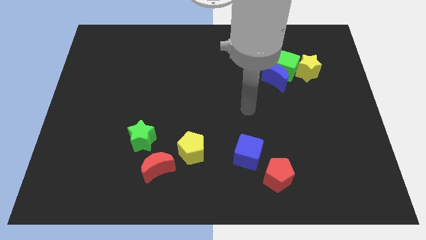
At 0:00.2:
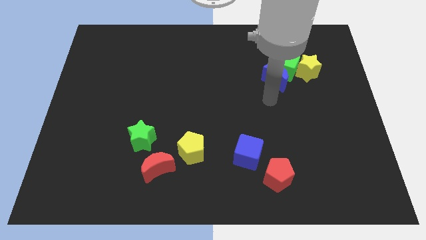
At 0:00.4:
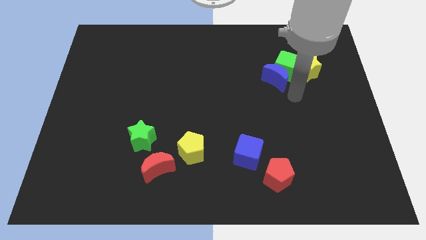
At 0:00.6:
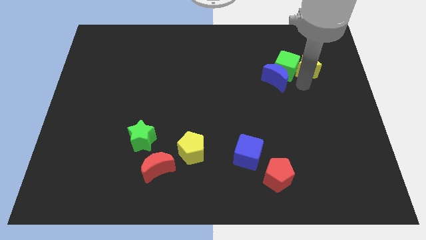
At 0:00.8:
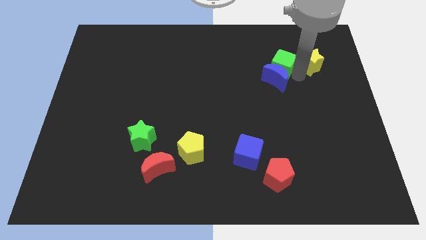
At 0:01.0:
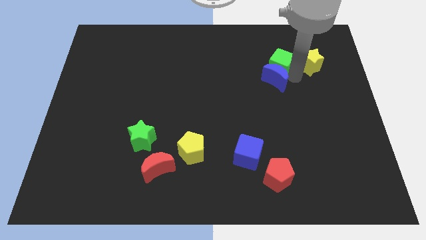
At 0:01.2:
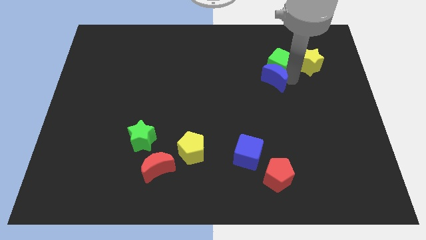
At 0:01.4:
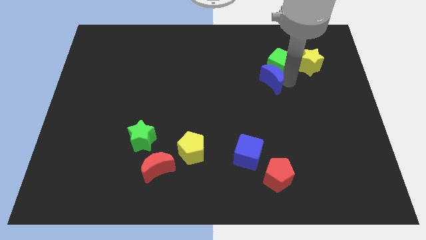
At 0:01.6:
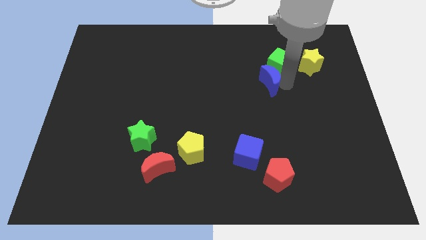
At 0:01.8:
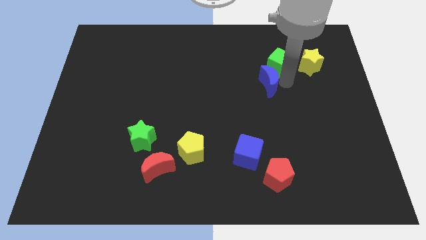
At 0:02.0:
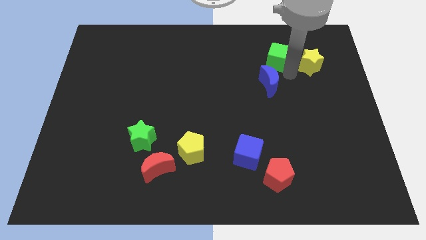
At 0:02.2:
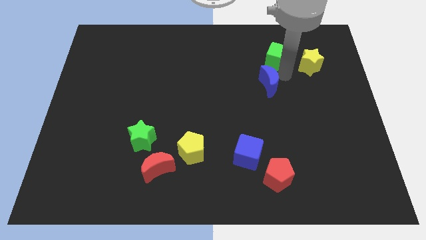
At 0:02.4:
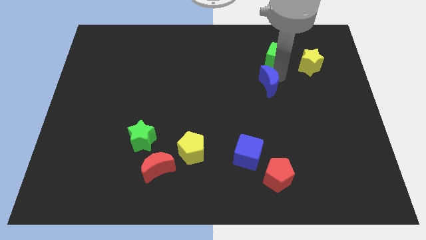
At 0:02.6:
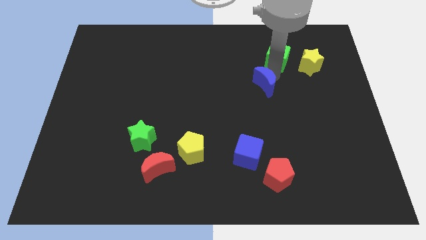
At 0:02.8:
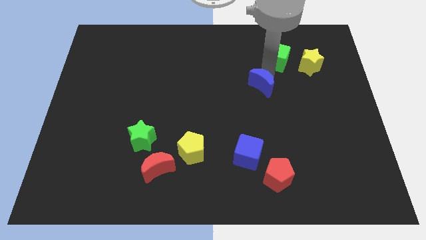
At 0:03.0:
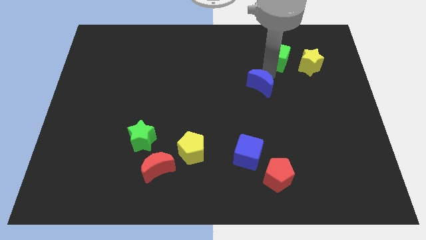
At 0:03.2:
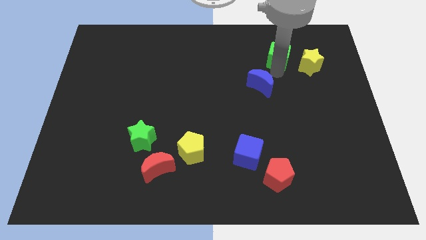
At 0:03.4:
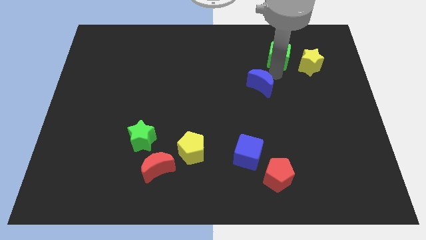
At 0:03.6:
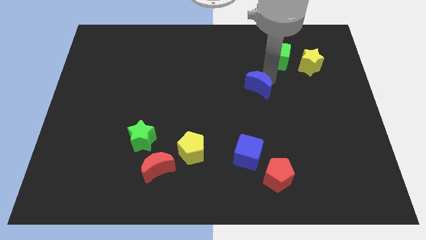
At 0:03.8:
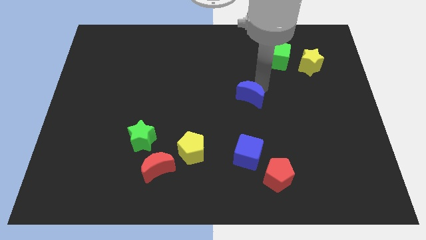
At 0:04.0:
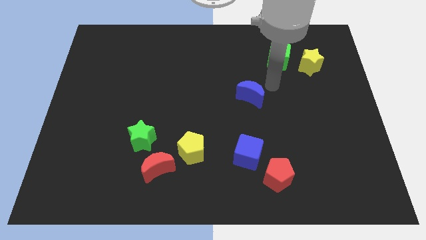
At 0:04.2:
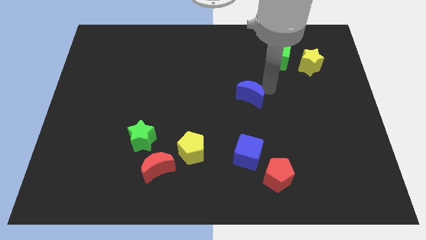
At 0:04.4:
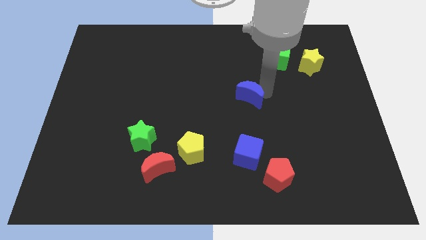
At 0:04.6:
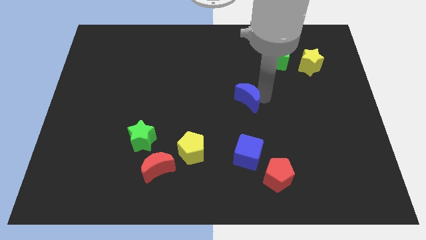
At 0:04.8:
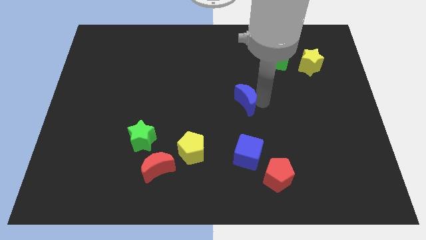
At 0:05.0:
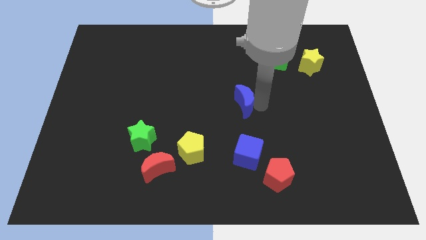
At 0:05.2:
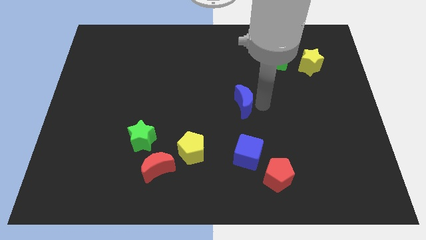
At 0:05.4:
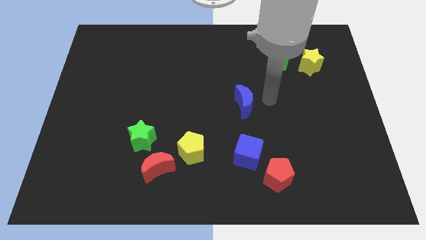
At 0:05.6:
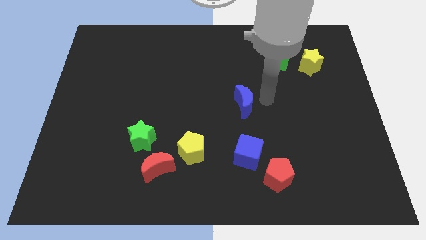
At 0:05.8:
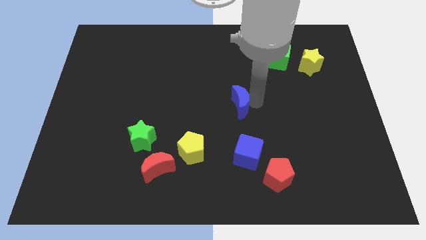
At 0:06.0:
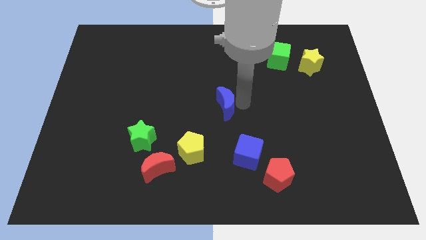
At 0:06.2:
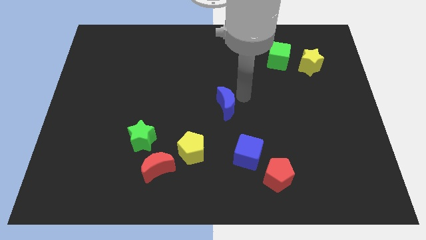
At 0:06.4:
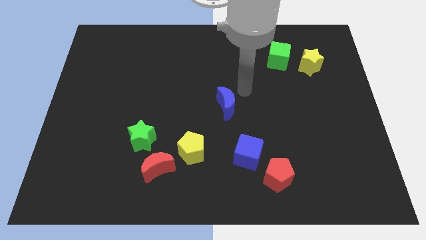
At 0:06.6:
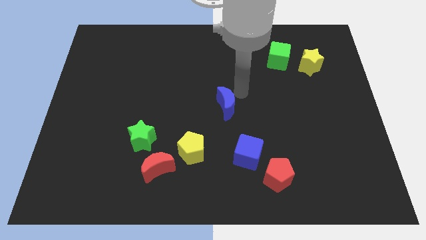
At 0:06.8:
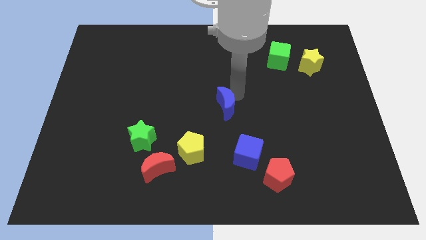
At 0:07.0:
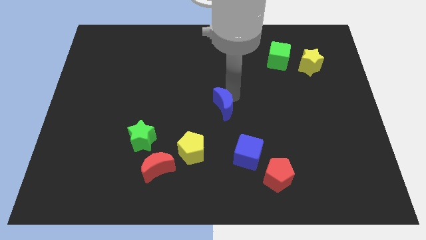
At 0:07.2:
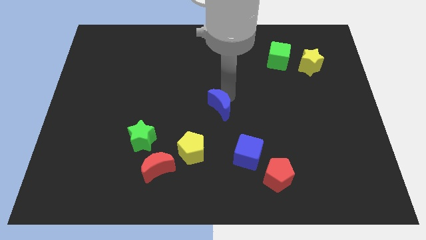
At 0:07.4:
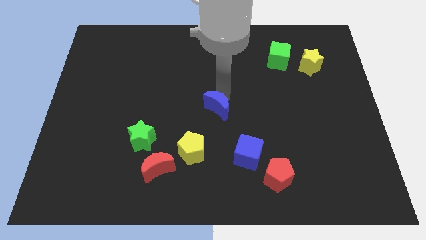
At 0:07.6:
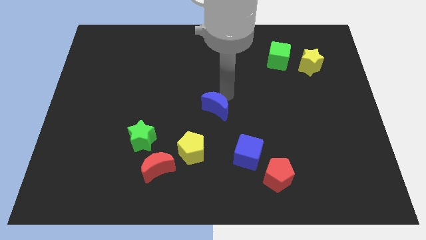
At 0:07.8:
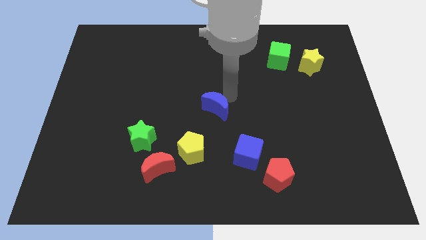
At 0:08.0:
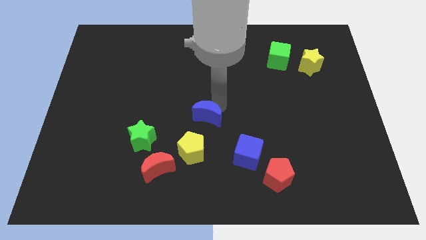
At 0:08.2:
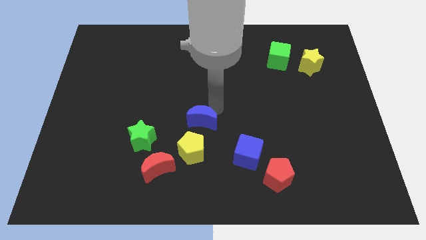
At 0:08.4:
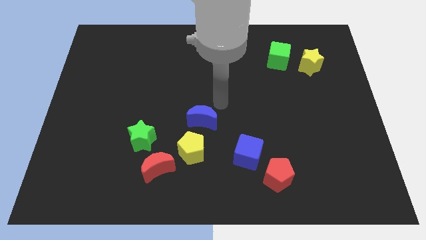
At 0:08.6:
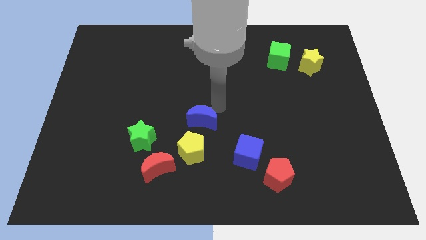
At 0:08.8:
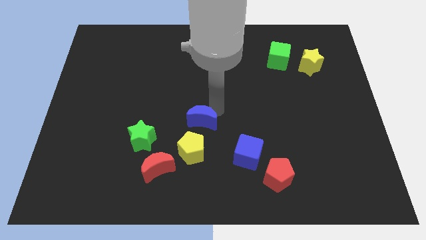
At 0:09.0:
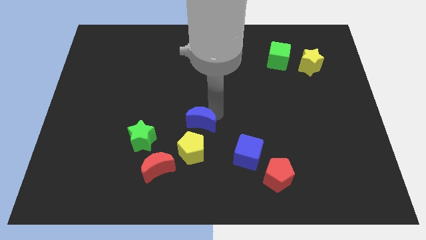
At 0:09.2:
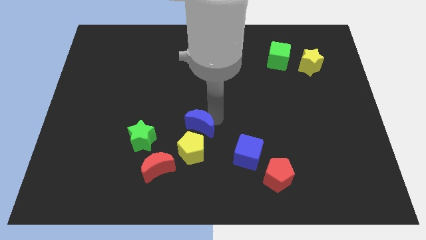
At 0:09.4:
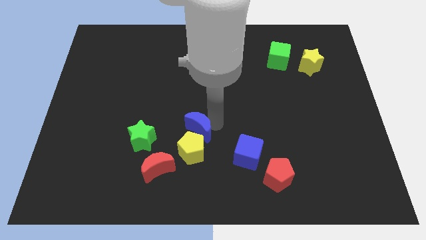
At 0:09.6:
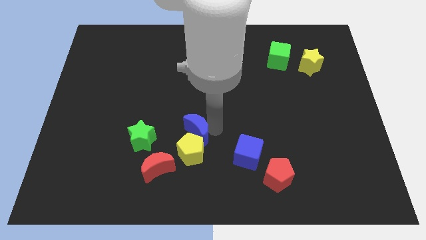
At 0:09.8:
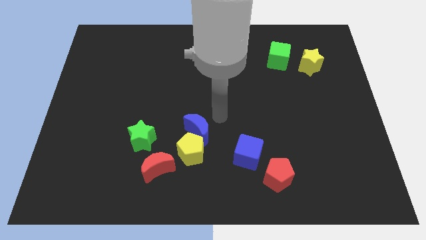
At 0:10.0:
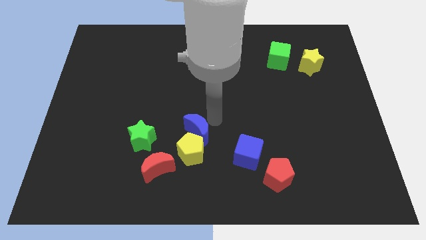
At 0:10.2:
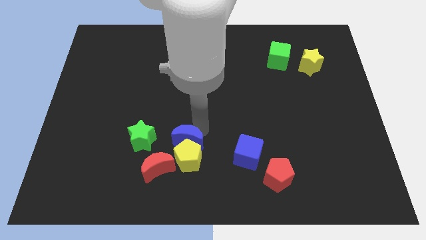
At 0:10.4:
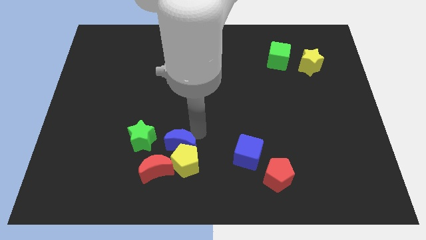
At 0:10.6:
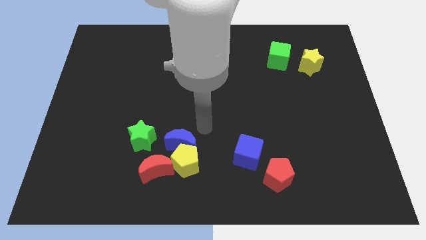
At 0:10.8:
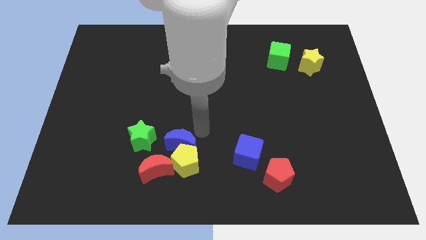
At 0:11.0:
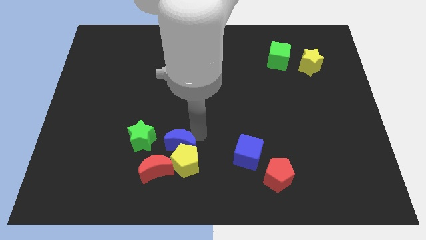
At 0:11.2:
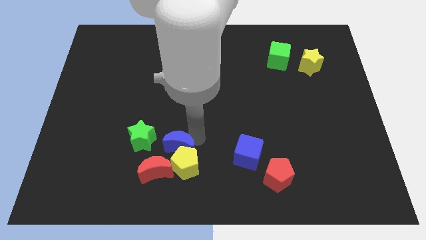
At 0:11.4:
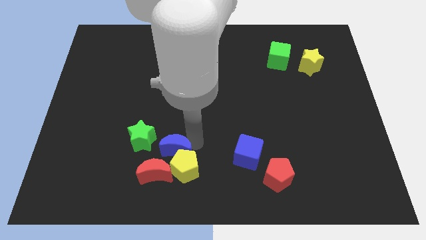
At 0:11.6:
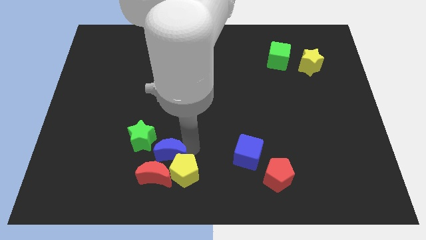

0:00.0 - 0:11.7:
push the blue moon towards the red moon
